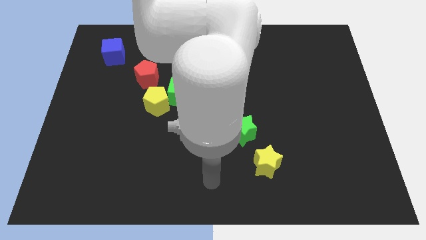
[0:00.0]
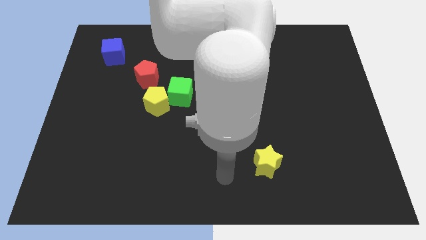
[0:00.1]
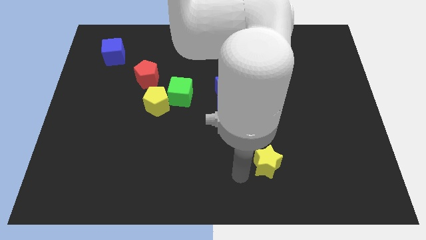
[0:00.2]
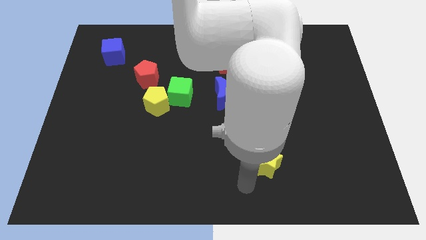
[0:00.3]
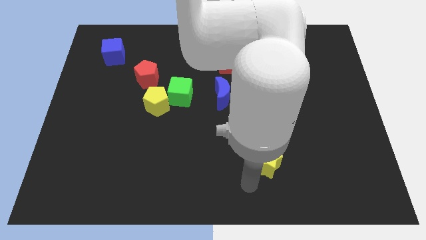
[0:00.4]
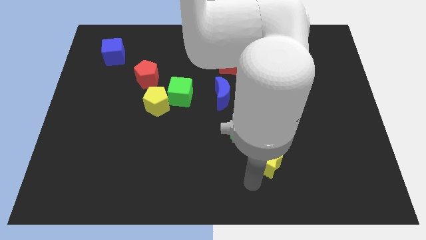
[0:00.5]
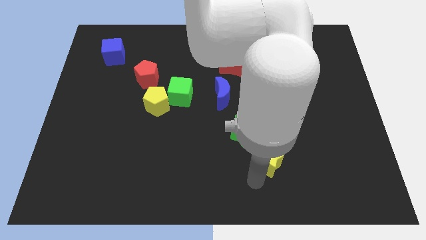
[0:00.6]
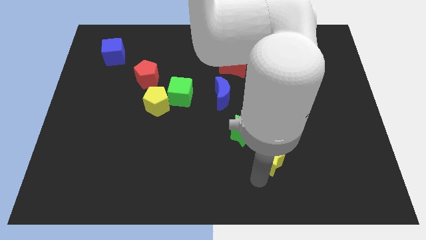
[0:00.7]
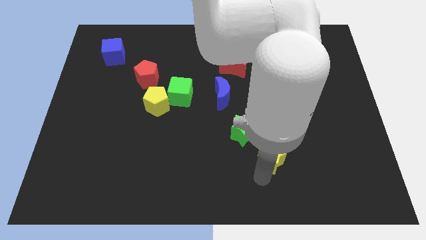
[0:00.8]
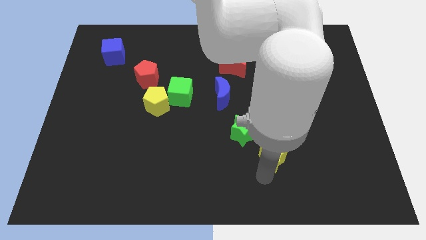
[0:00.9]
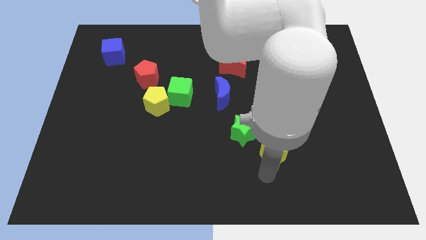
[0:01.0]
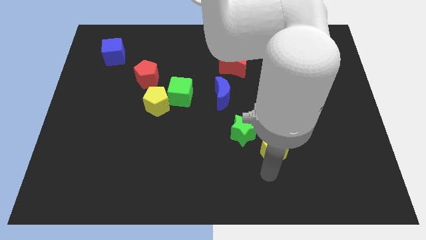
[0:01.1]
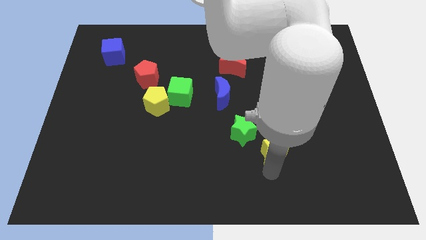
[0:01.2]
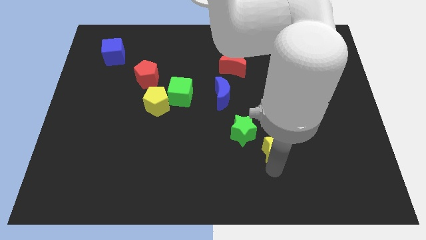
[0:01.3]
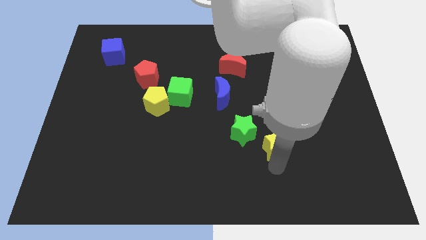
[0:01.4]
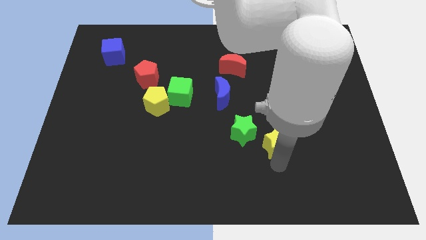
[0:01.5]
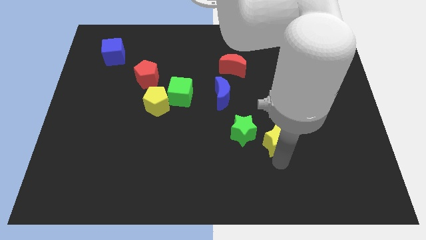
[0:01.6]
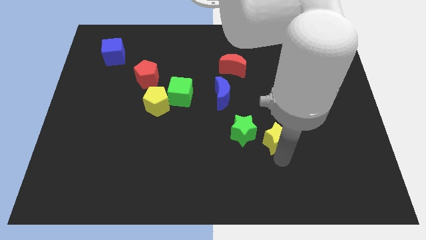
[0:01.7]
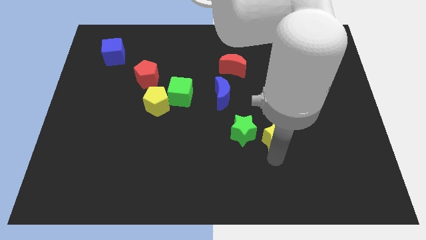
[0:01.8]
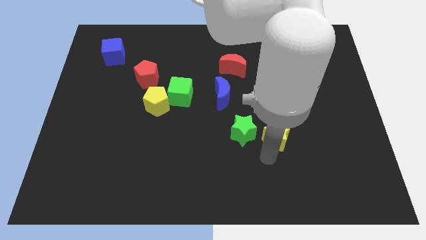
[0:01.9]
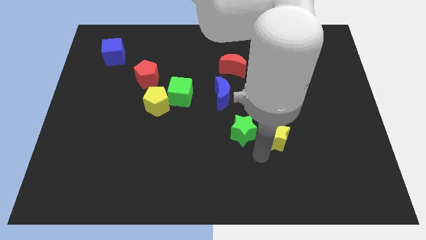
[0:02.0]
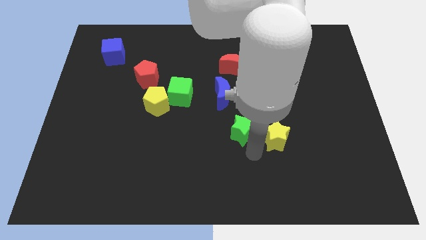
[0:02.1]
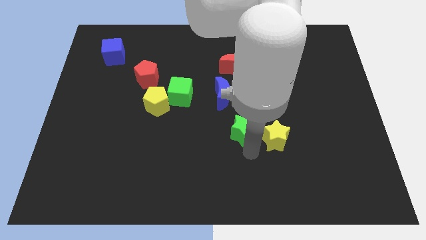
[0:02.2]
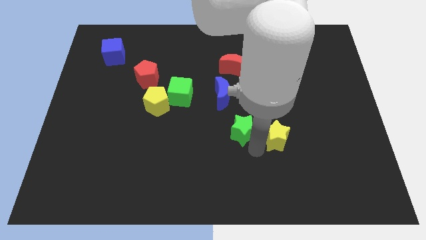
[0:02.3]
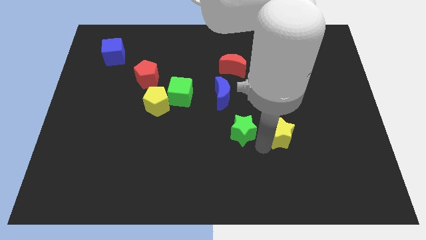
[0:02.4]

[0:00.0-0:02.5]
slightly slide the yellow star up and then right

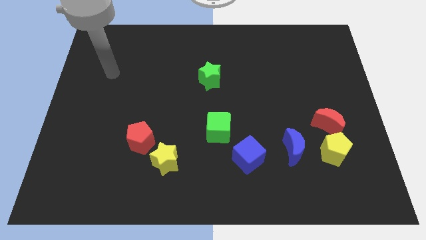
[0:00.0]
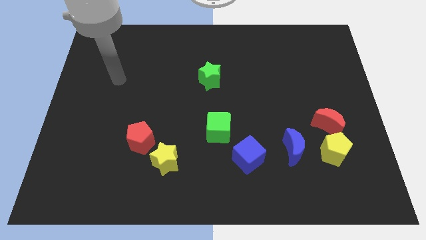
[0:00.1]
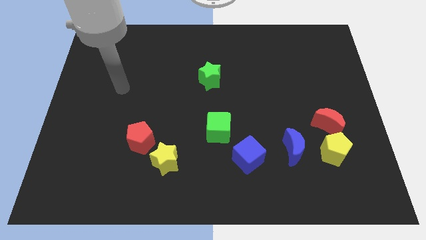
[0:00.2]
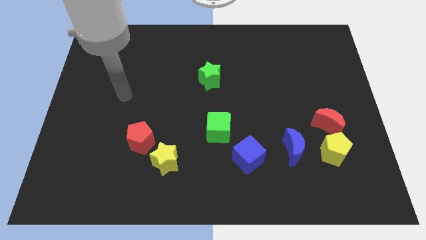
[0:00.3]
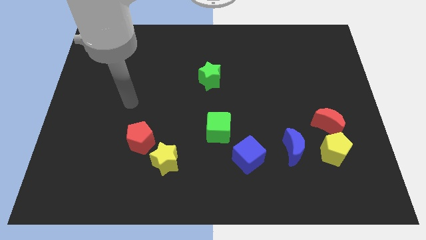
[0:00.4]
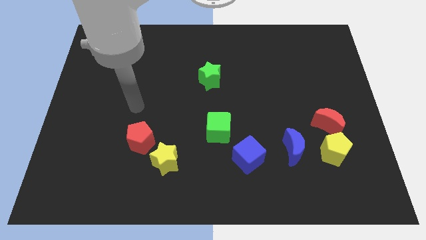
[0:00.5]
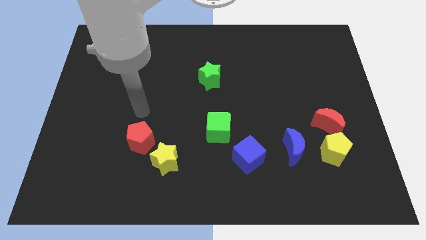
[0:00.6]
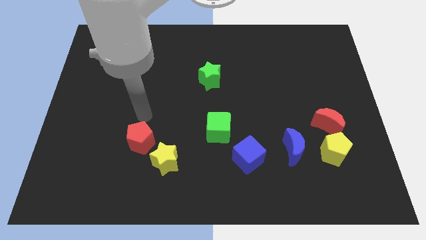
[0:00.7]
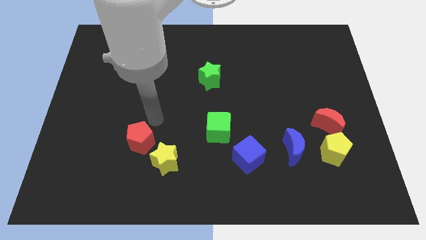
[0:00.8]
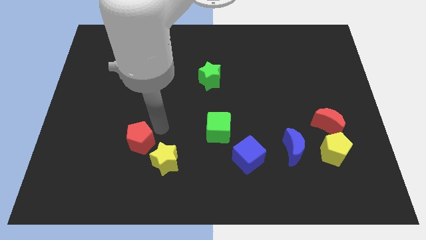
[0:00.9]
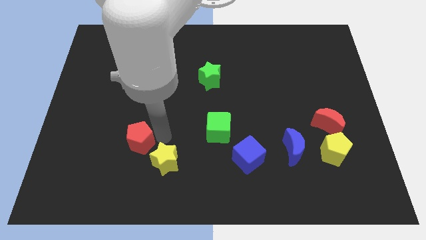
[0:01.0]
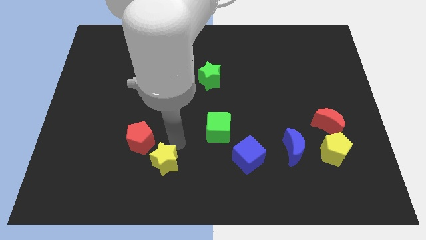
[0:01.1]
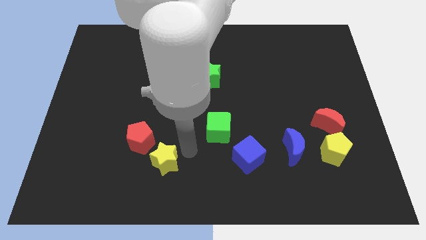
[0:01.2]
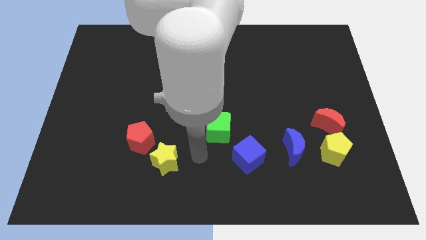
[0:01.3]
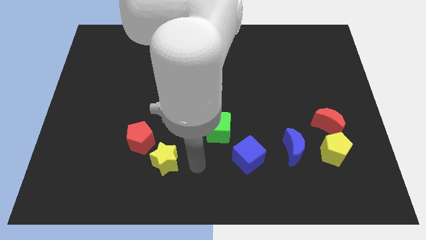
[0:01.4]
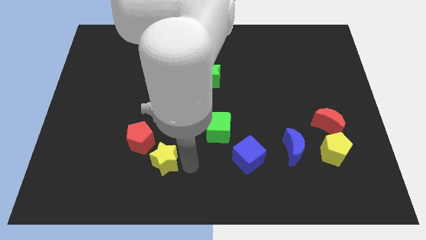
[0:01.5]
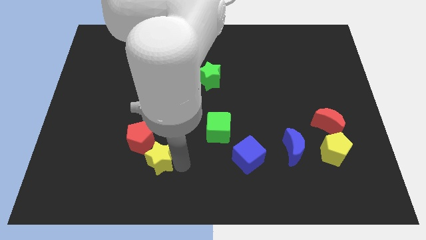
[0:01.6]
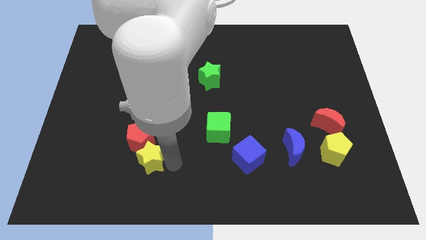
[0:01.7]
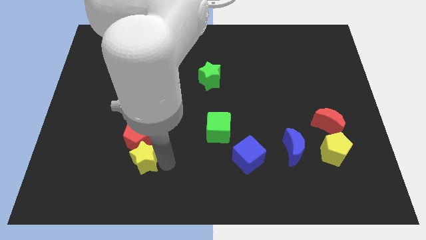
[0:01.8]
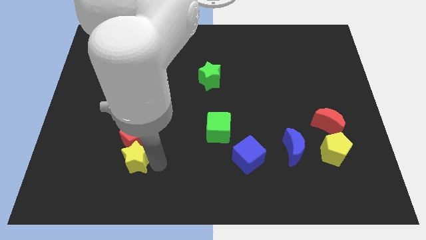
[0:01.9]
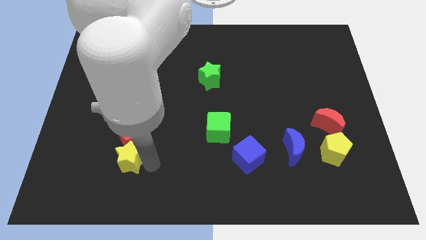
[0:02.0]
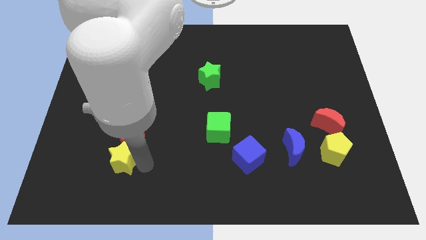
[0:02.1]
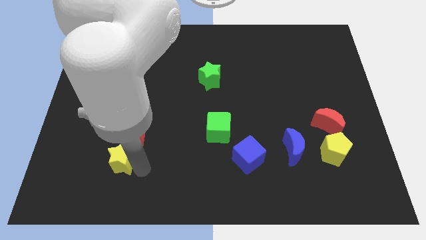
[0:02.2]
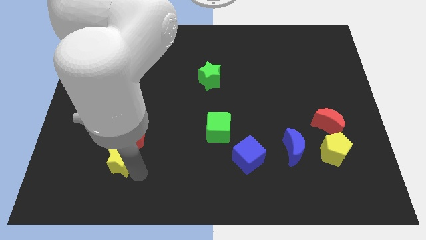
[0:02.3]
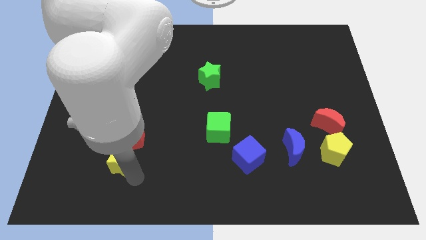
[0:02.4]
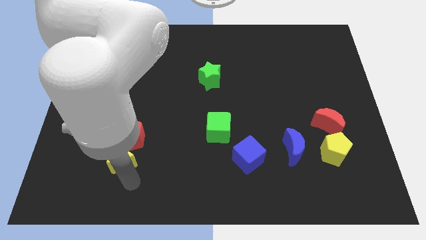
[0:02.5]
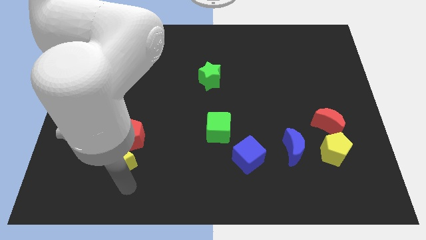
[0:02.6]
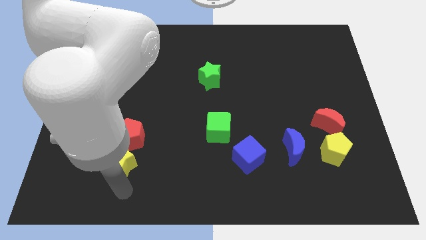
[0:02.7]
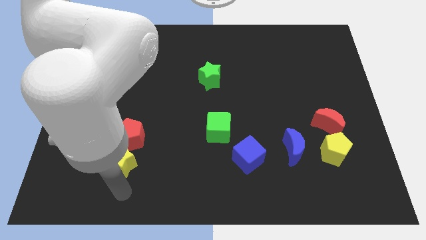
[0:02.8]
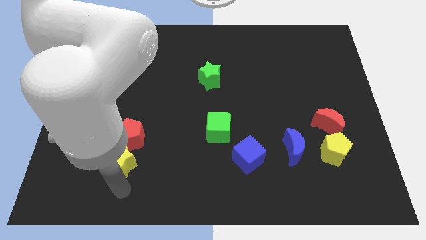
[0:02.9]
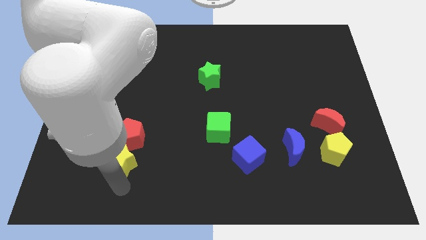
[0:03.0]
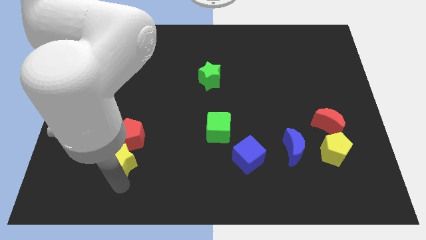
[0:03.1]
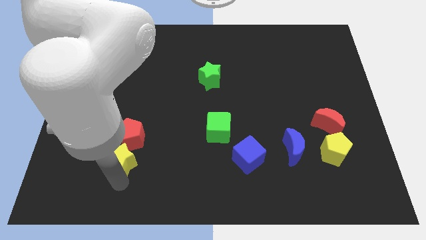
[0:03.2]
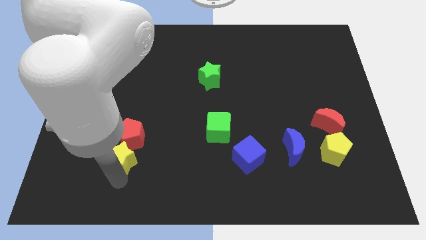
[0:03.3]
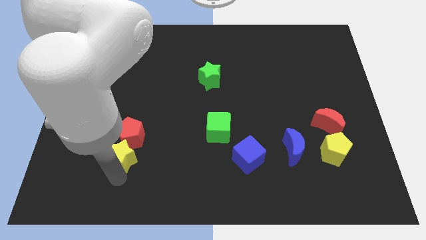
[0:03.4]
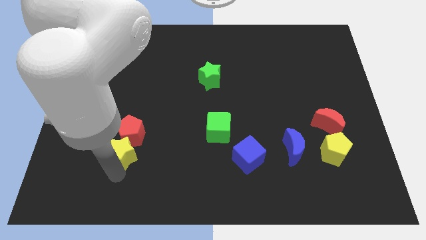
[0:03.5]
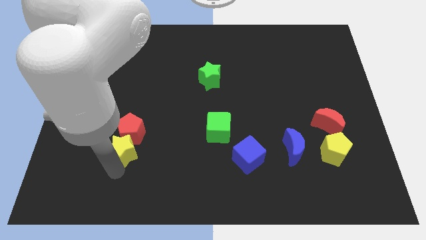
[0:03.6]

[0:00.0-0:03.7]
slightly move the yellow star up and left

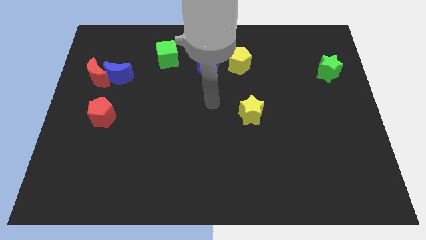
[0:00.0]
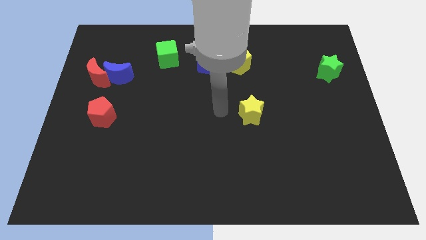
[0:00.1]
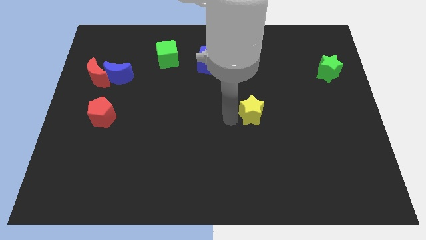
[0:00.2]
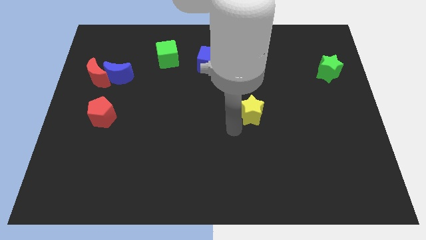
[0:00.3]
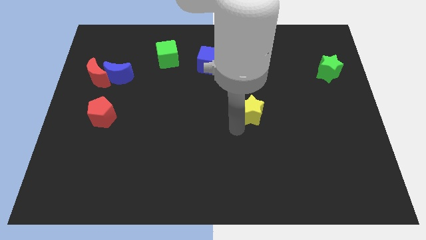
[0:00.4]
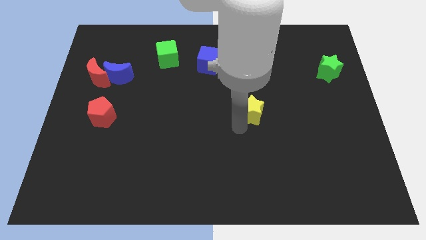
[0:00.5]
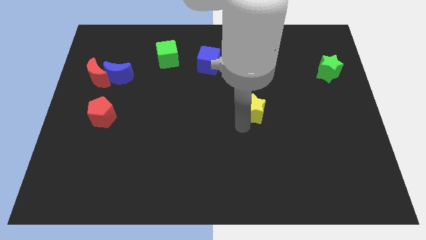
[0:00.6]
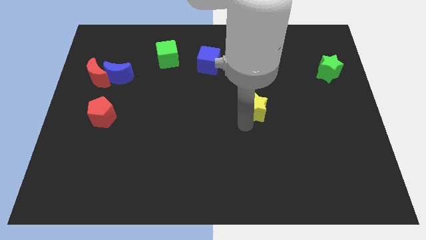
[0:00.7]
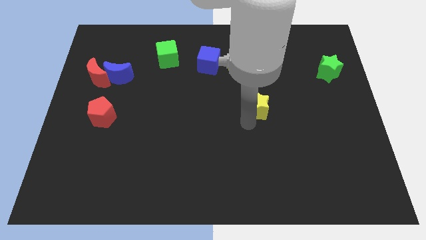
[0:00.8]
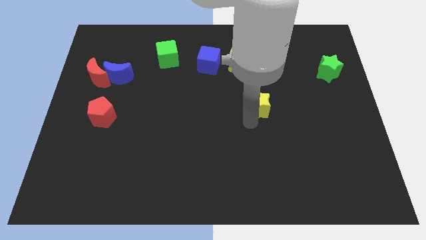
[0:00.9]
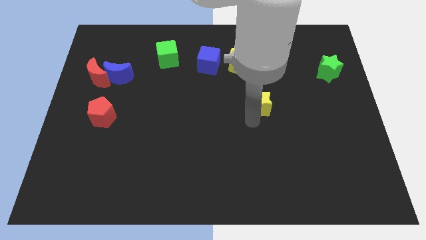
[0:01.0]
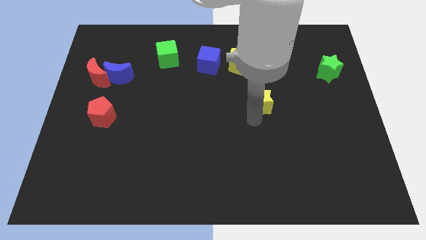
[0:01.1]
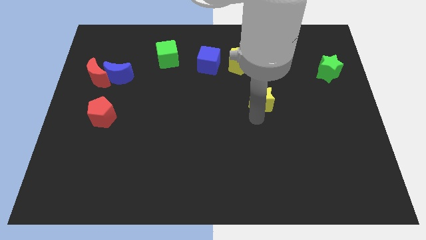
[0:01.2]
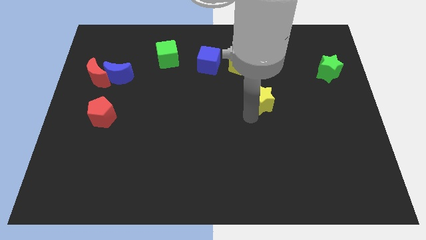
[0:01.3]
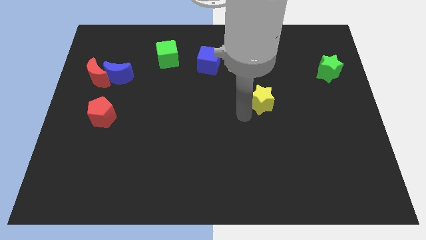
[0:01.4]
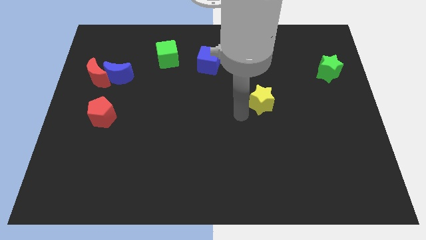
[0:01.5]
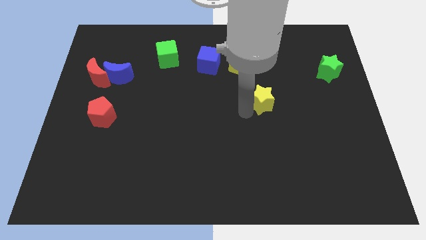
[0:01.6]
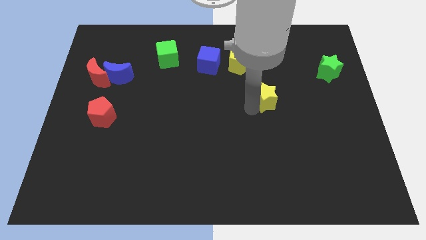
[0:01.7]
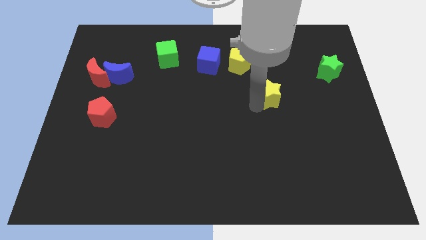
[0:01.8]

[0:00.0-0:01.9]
slightly move the yellow star up and then to the right
